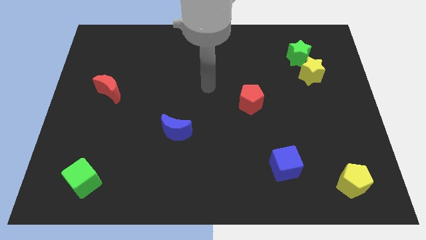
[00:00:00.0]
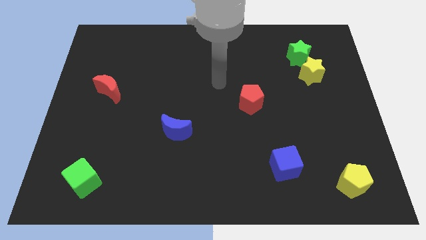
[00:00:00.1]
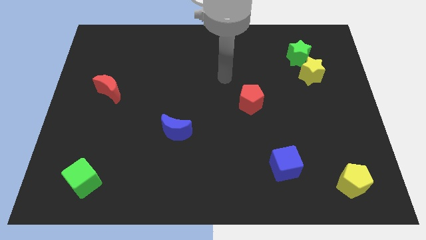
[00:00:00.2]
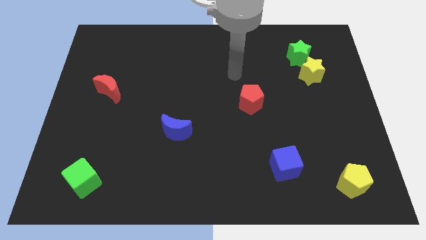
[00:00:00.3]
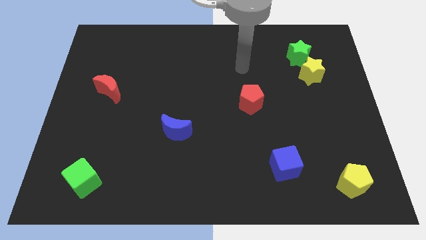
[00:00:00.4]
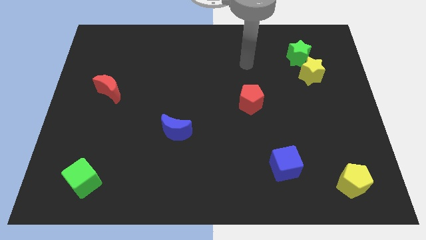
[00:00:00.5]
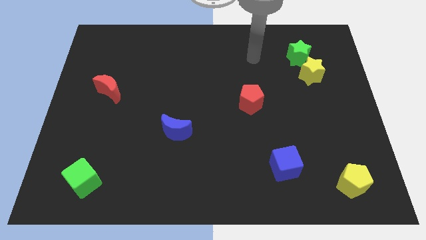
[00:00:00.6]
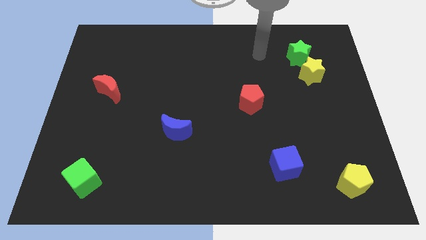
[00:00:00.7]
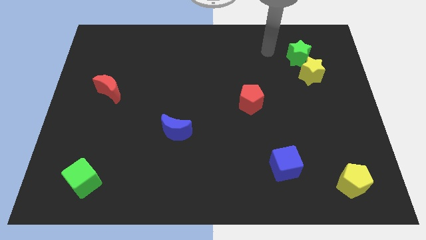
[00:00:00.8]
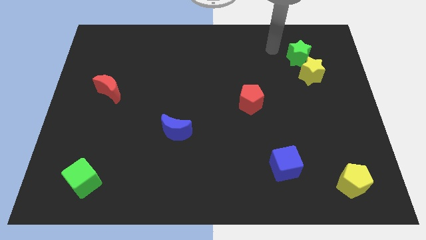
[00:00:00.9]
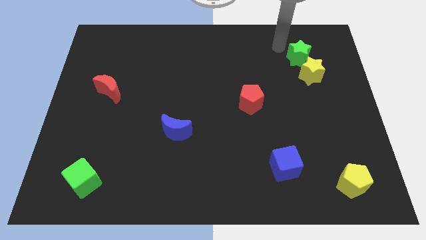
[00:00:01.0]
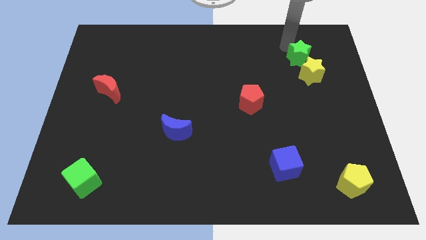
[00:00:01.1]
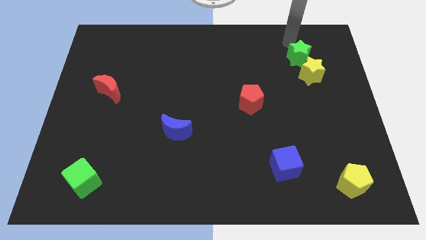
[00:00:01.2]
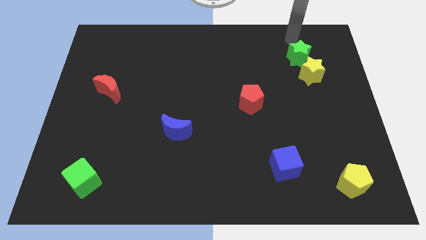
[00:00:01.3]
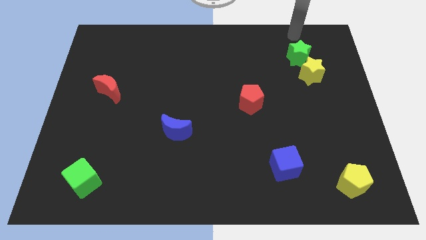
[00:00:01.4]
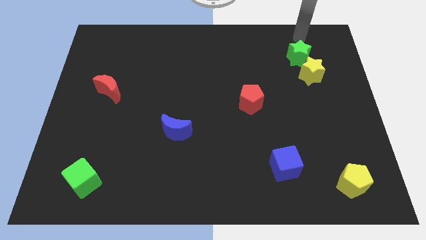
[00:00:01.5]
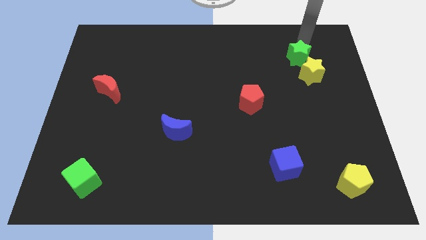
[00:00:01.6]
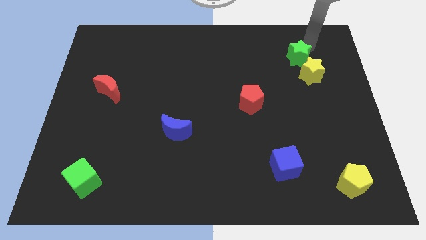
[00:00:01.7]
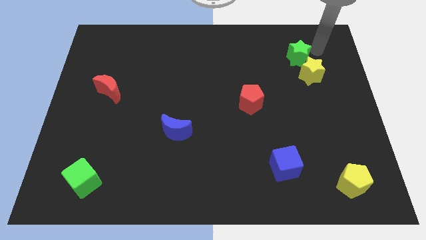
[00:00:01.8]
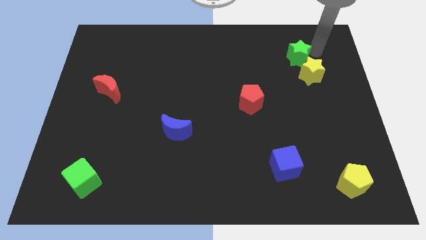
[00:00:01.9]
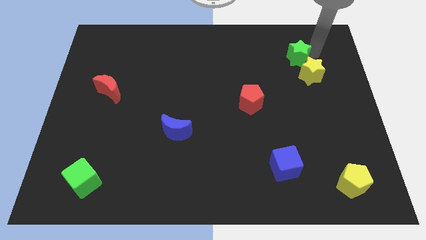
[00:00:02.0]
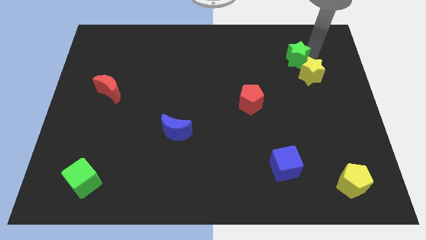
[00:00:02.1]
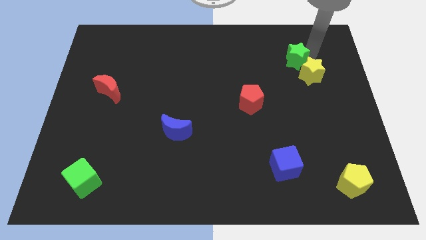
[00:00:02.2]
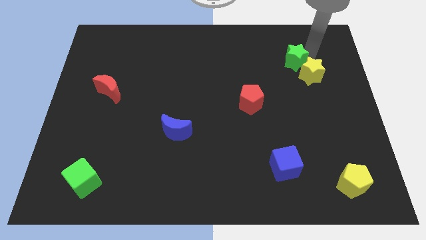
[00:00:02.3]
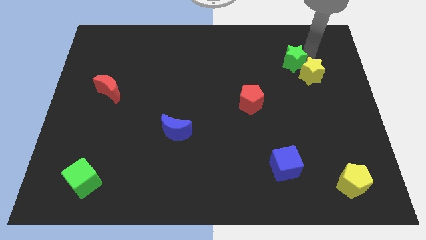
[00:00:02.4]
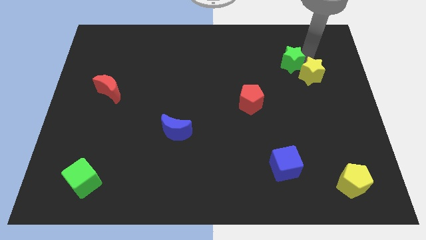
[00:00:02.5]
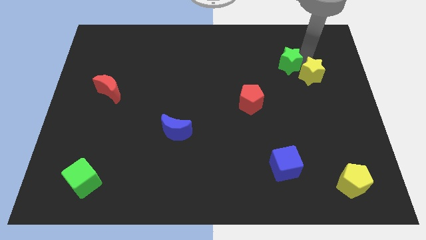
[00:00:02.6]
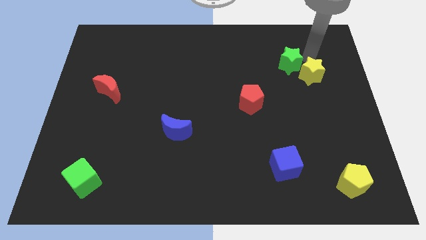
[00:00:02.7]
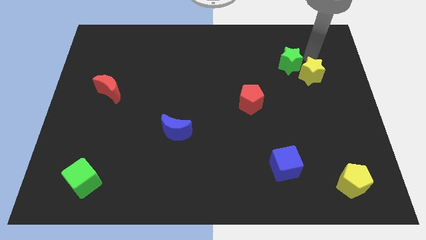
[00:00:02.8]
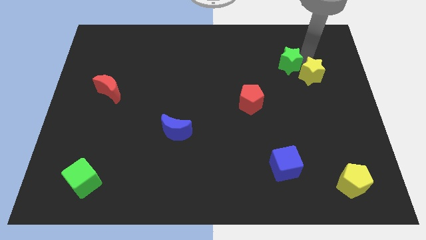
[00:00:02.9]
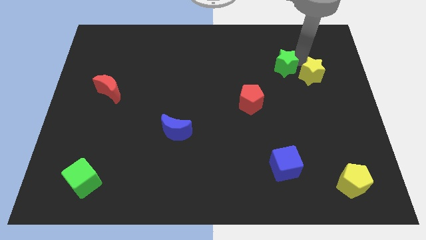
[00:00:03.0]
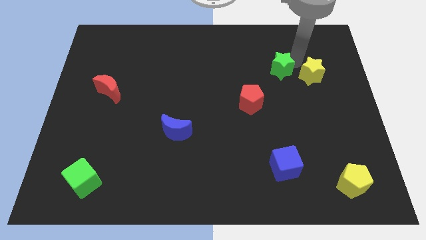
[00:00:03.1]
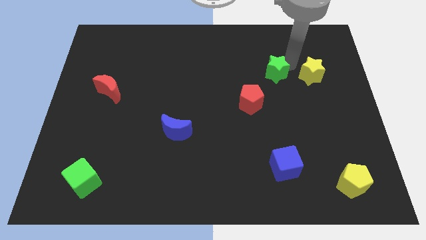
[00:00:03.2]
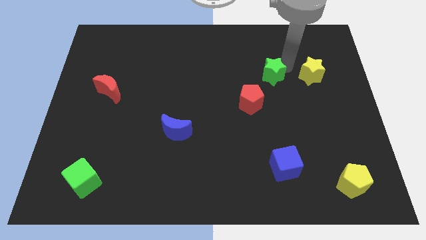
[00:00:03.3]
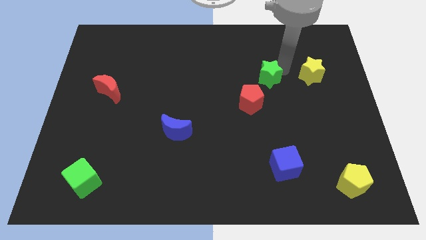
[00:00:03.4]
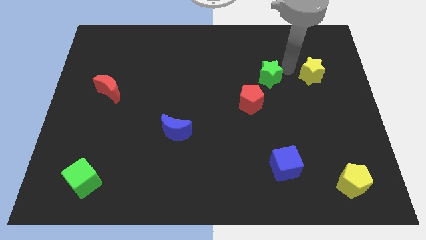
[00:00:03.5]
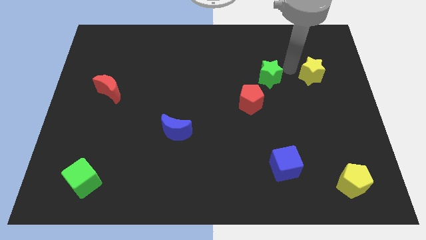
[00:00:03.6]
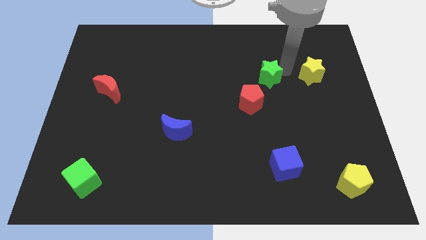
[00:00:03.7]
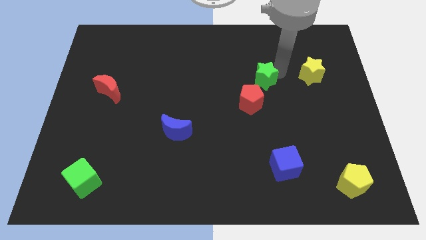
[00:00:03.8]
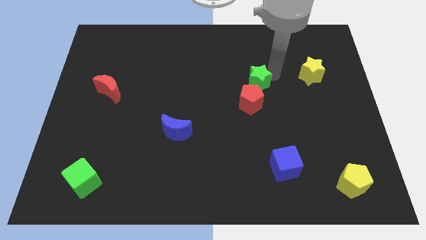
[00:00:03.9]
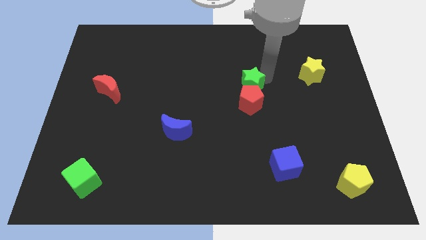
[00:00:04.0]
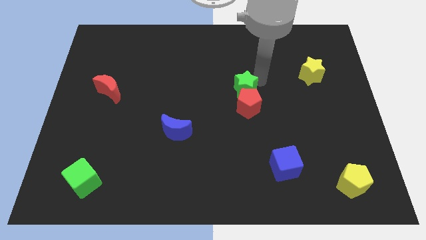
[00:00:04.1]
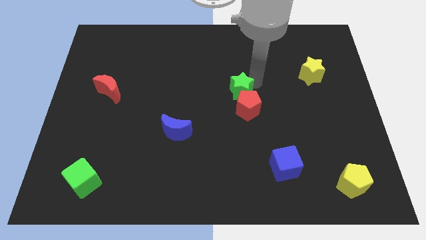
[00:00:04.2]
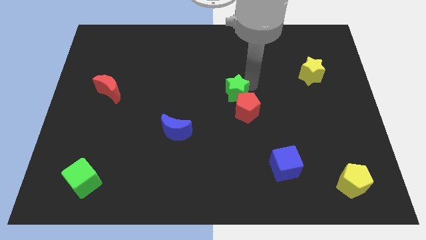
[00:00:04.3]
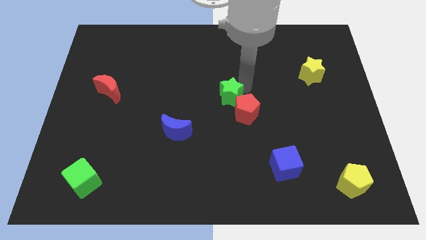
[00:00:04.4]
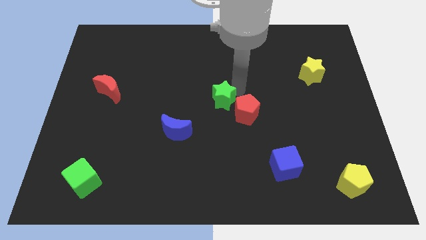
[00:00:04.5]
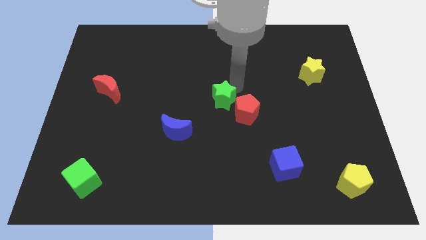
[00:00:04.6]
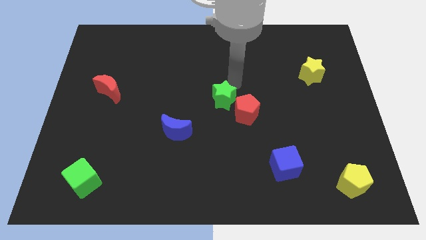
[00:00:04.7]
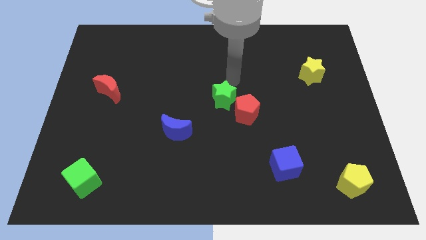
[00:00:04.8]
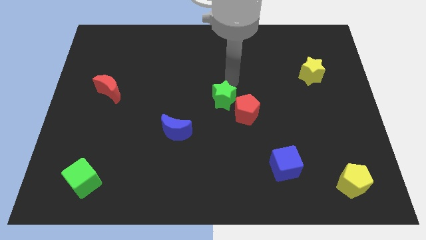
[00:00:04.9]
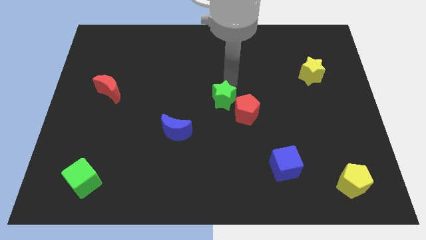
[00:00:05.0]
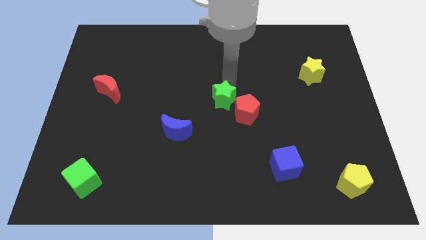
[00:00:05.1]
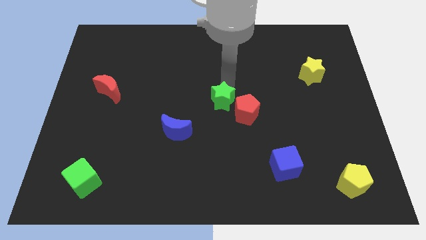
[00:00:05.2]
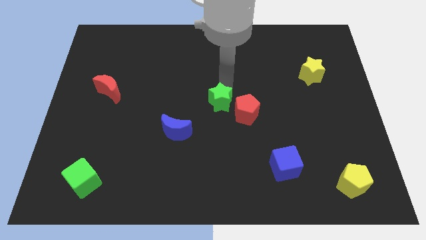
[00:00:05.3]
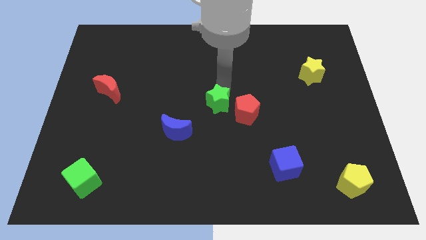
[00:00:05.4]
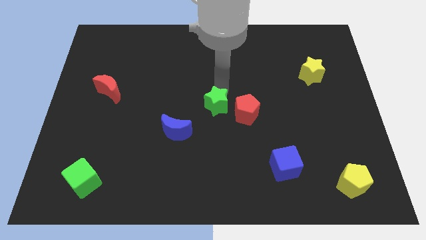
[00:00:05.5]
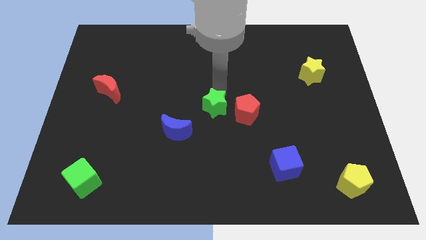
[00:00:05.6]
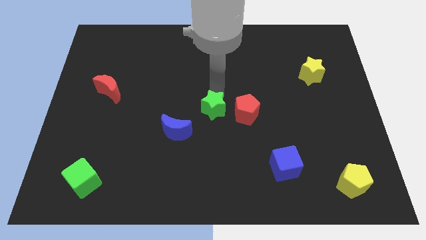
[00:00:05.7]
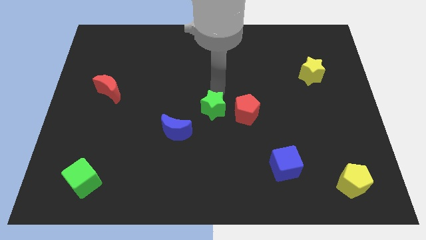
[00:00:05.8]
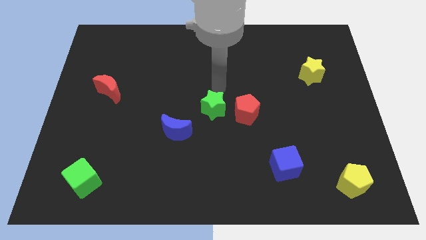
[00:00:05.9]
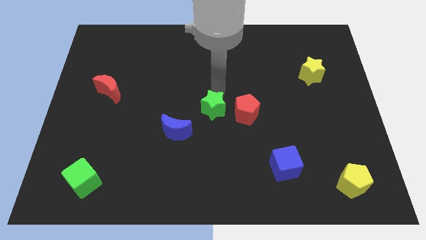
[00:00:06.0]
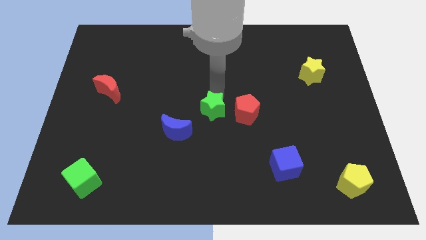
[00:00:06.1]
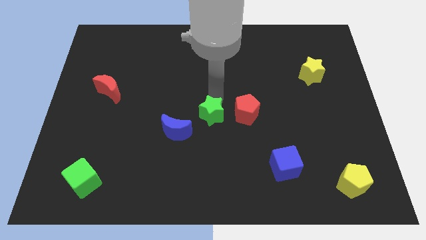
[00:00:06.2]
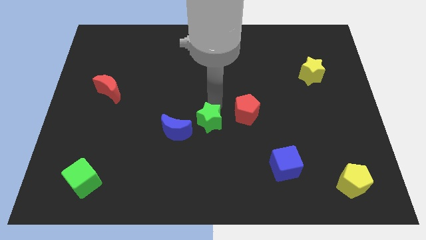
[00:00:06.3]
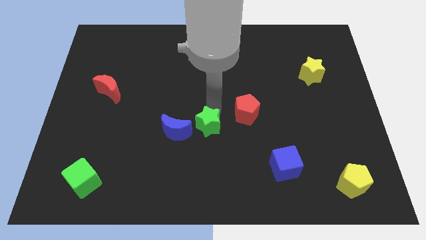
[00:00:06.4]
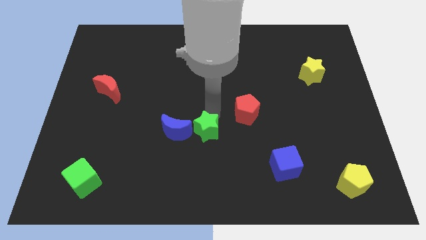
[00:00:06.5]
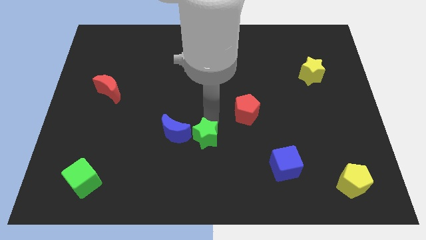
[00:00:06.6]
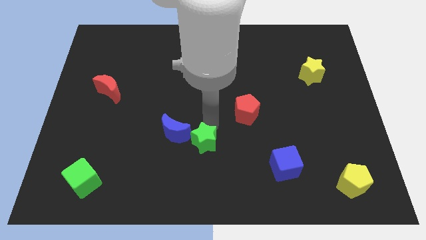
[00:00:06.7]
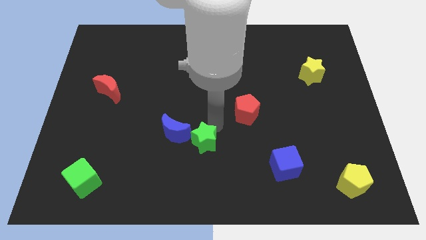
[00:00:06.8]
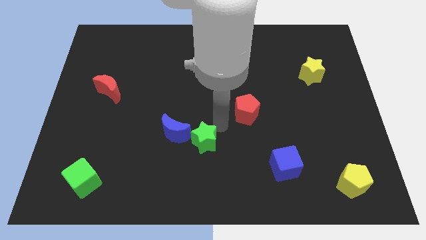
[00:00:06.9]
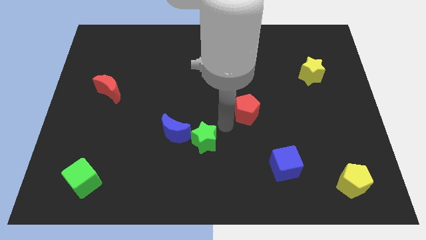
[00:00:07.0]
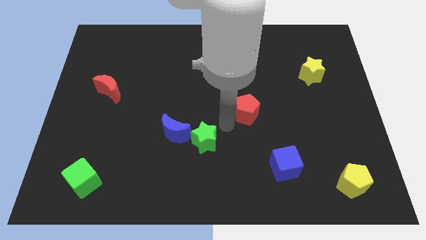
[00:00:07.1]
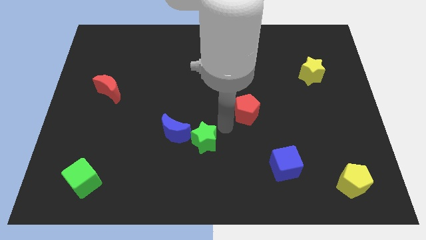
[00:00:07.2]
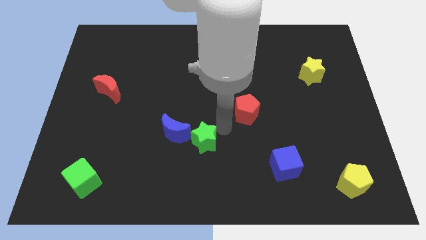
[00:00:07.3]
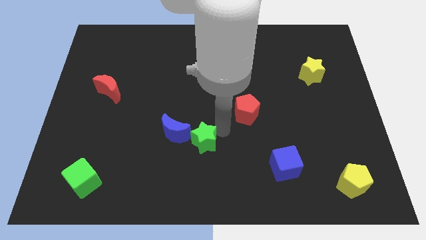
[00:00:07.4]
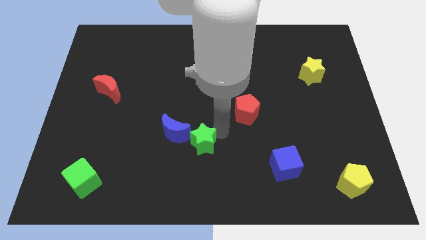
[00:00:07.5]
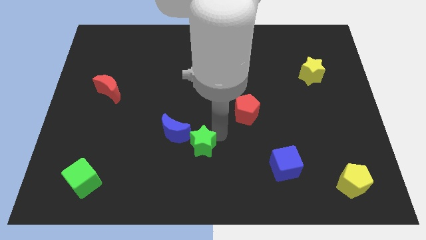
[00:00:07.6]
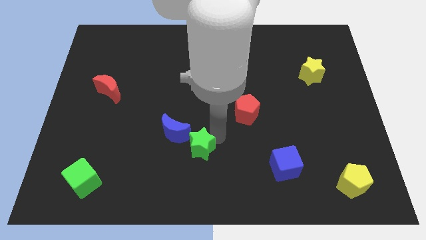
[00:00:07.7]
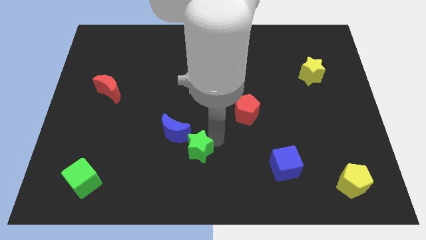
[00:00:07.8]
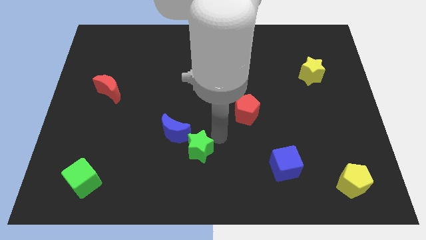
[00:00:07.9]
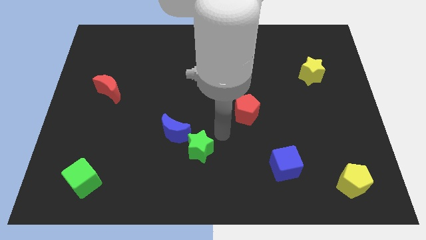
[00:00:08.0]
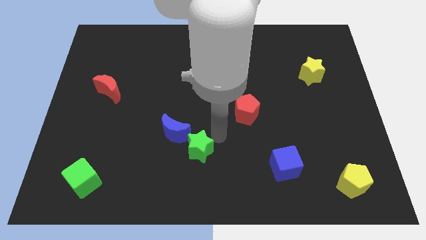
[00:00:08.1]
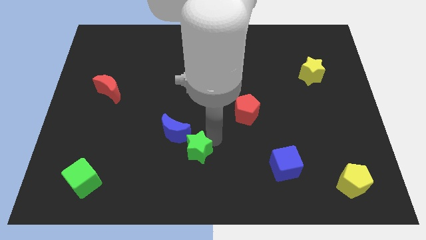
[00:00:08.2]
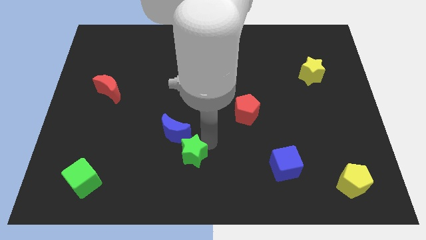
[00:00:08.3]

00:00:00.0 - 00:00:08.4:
push the green star to the bottom side of the blue moon
